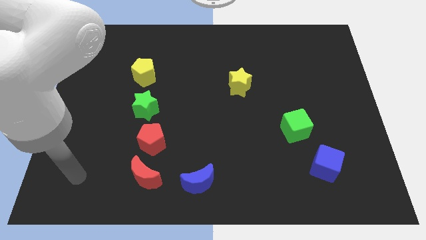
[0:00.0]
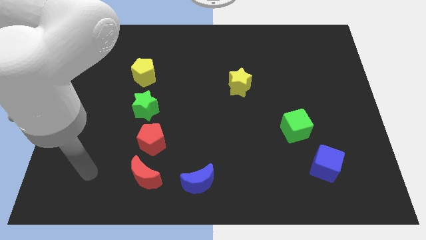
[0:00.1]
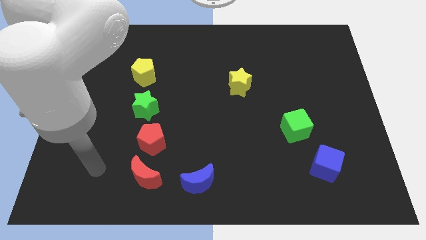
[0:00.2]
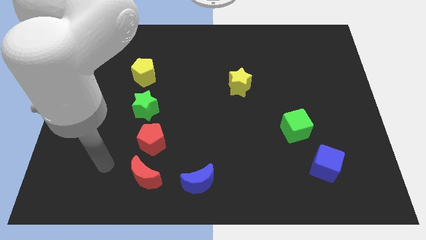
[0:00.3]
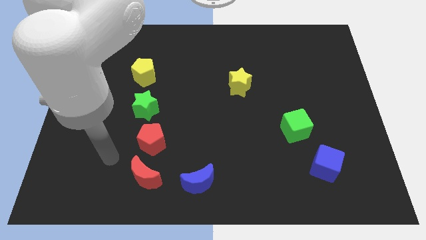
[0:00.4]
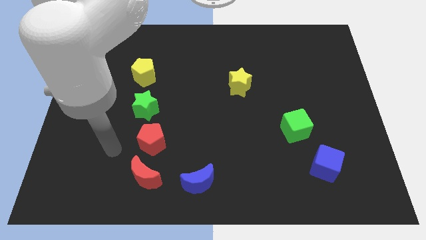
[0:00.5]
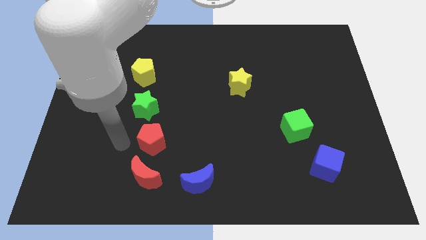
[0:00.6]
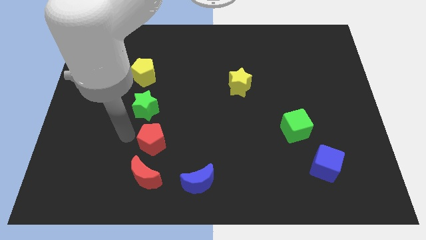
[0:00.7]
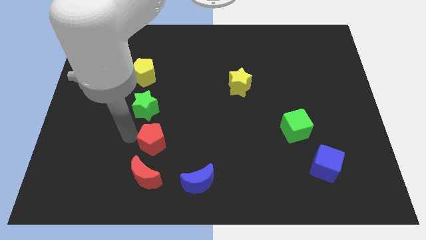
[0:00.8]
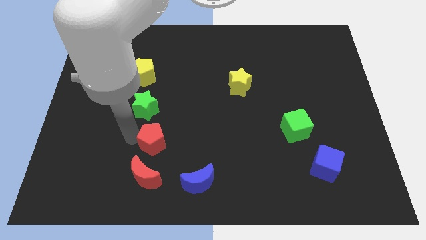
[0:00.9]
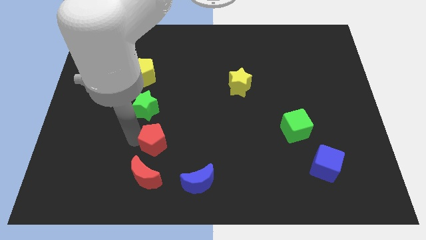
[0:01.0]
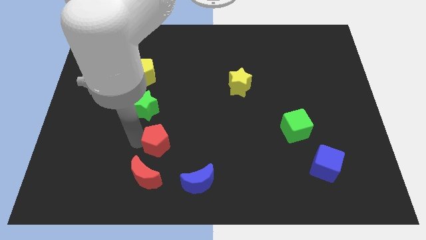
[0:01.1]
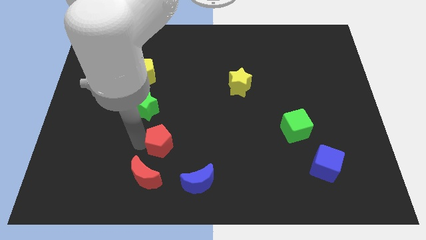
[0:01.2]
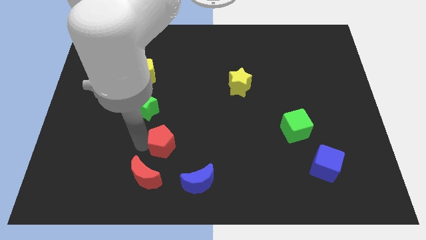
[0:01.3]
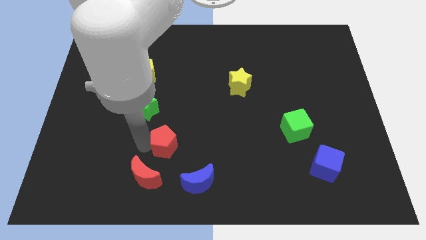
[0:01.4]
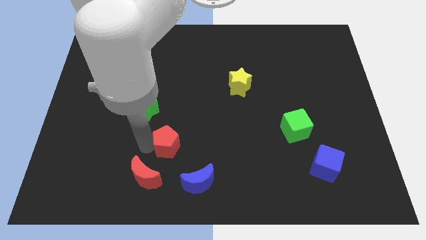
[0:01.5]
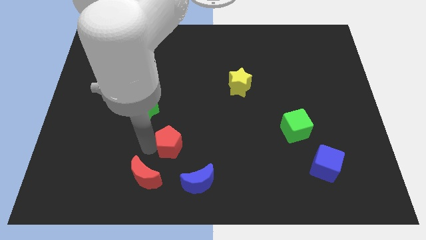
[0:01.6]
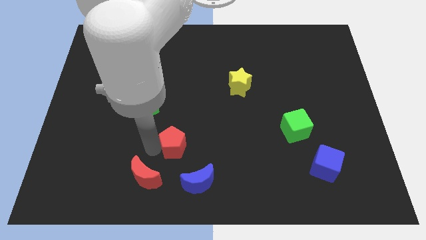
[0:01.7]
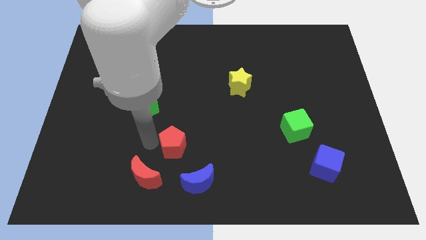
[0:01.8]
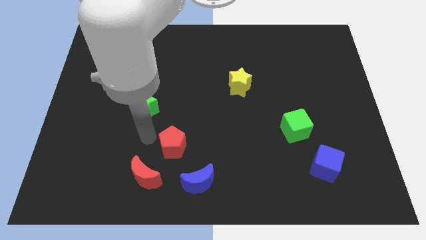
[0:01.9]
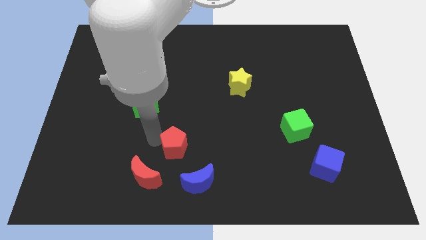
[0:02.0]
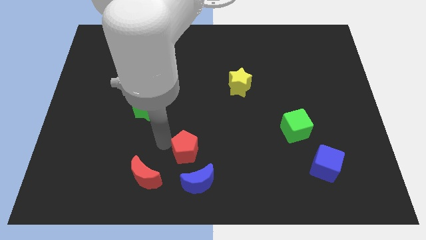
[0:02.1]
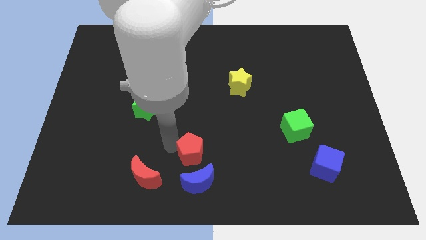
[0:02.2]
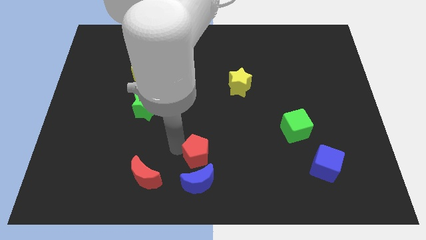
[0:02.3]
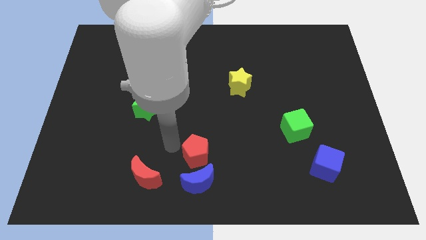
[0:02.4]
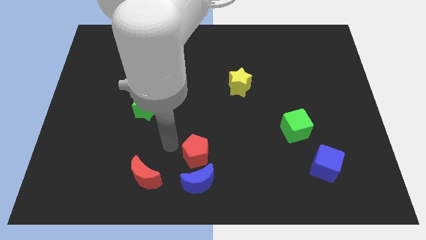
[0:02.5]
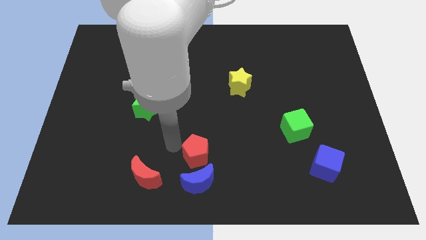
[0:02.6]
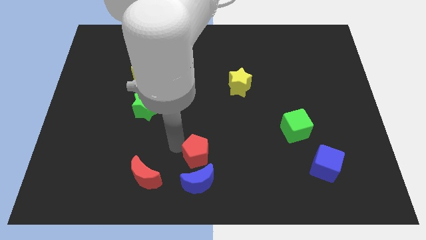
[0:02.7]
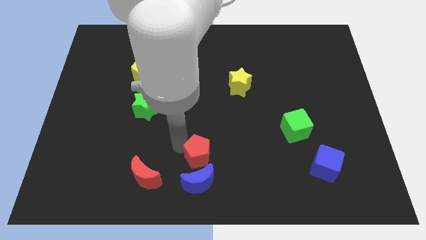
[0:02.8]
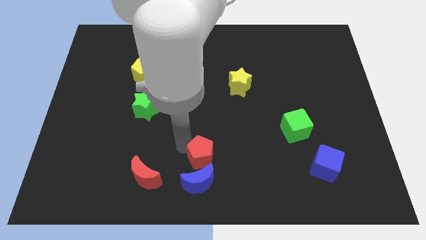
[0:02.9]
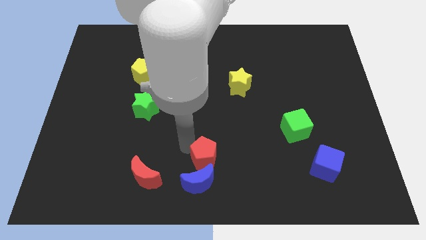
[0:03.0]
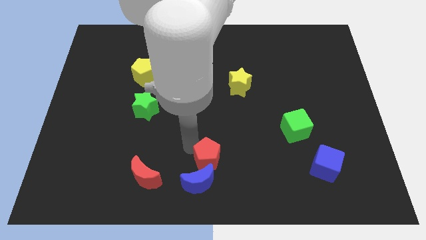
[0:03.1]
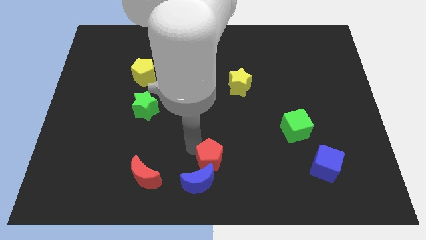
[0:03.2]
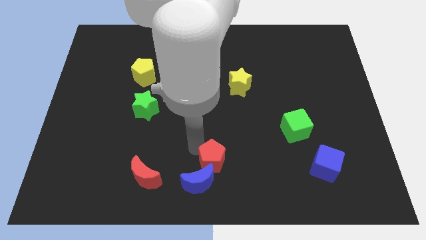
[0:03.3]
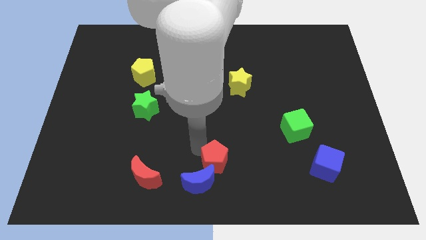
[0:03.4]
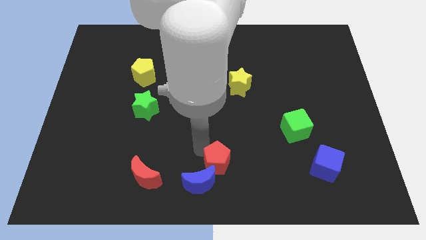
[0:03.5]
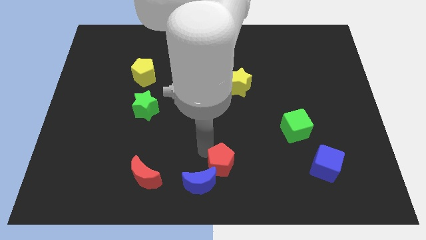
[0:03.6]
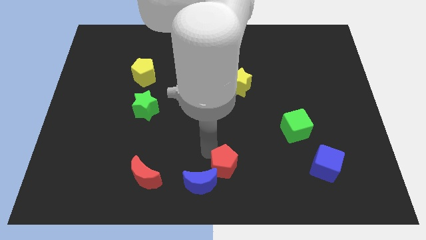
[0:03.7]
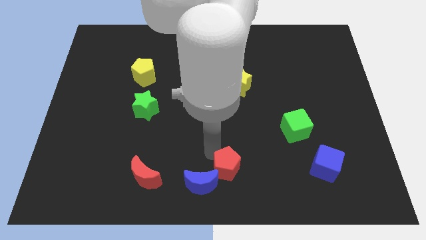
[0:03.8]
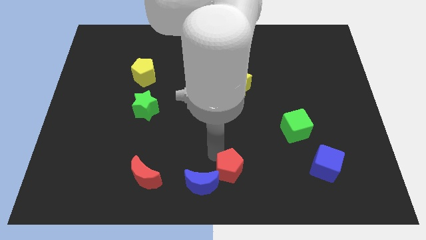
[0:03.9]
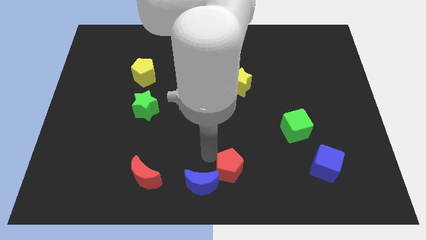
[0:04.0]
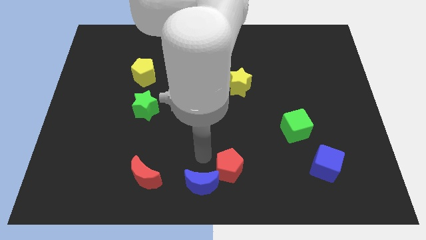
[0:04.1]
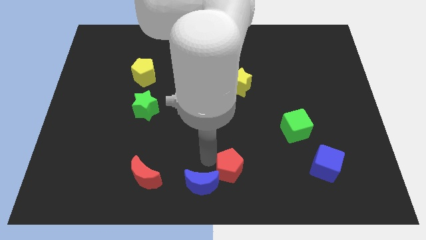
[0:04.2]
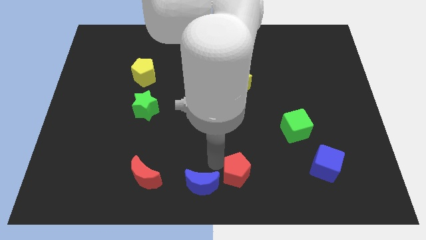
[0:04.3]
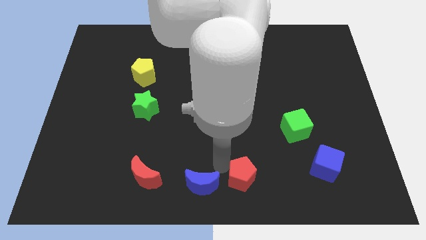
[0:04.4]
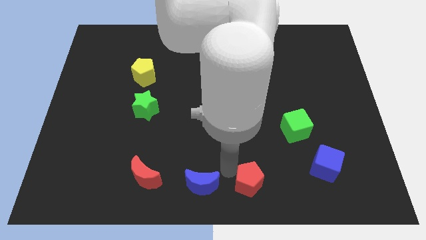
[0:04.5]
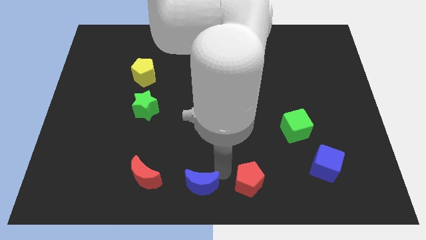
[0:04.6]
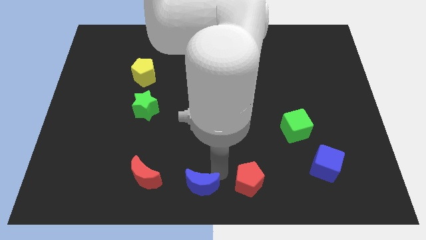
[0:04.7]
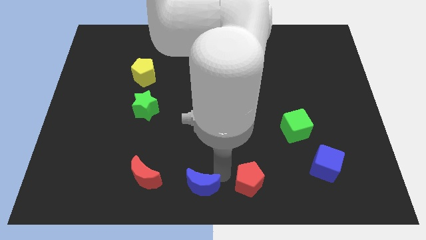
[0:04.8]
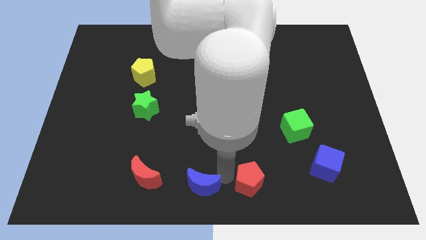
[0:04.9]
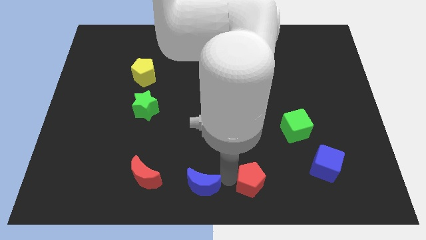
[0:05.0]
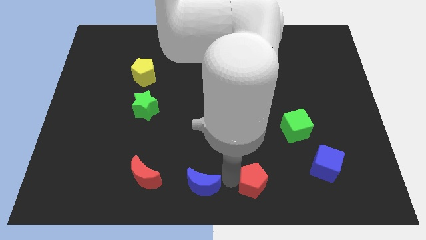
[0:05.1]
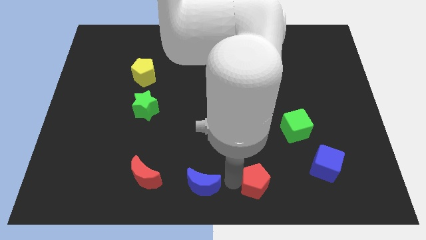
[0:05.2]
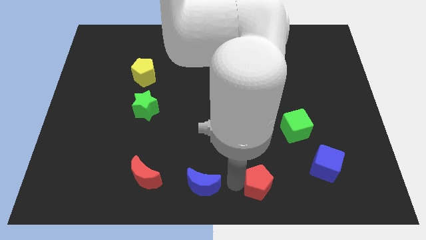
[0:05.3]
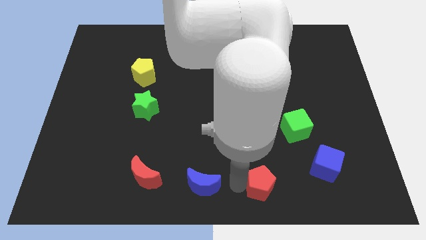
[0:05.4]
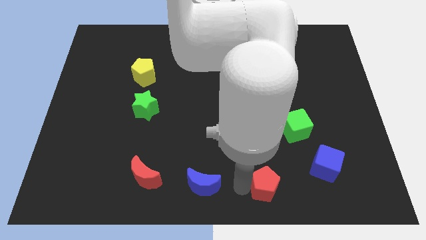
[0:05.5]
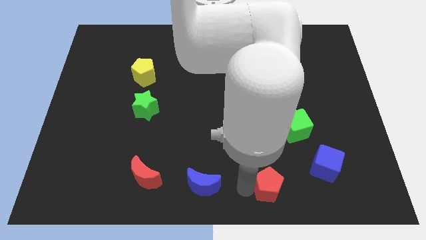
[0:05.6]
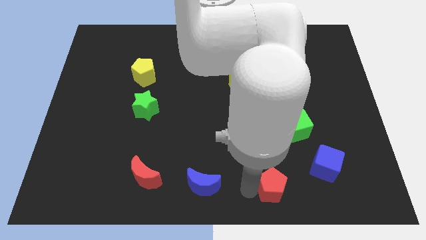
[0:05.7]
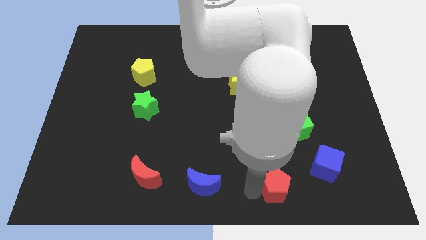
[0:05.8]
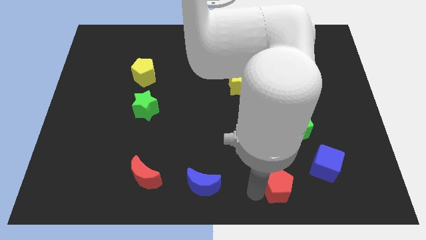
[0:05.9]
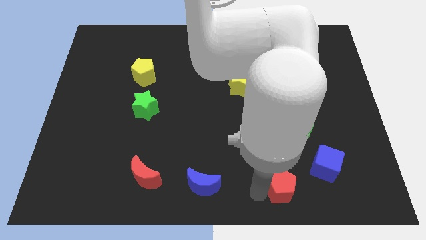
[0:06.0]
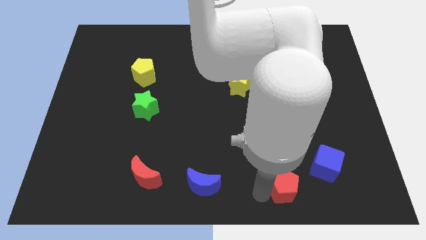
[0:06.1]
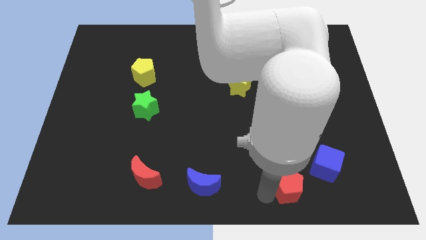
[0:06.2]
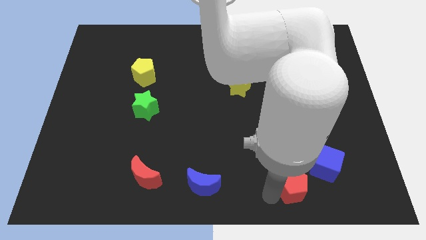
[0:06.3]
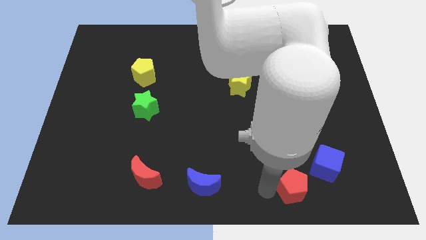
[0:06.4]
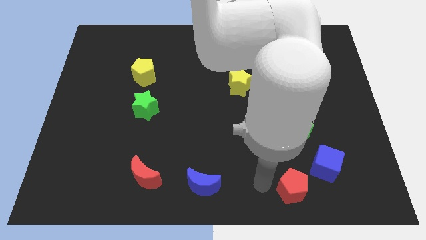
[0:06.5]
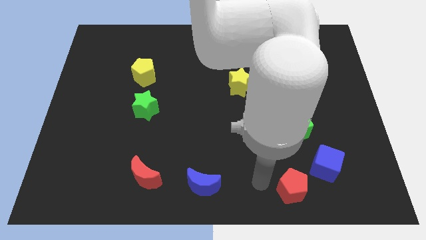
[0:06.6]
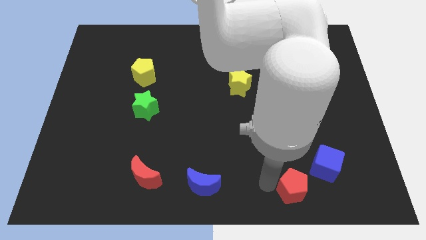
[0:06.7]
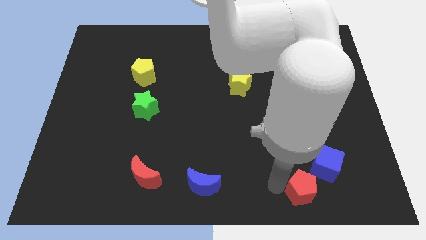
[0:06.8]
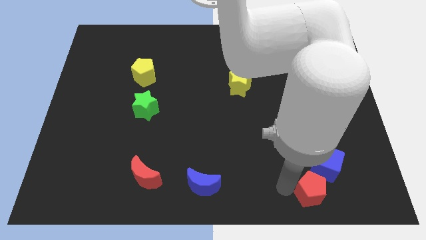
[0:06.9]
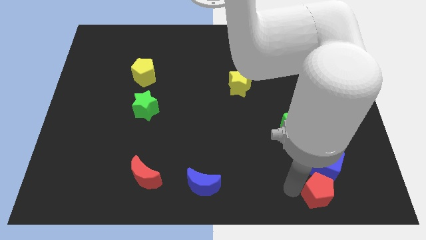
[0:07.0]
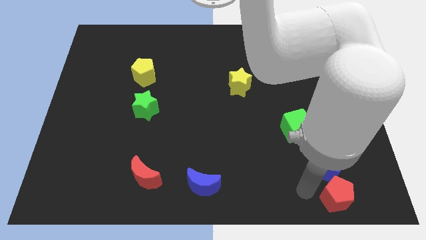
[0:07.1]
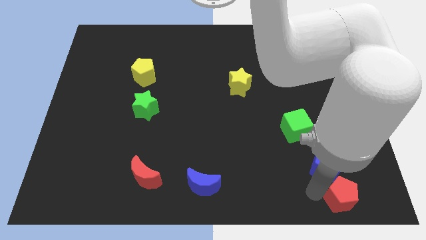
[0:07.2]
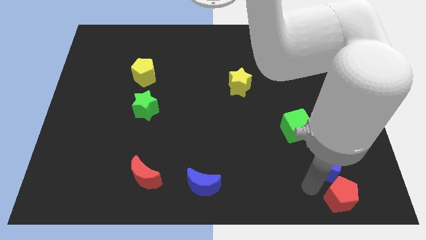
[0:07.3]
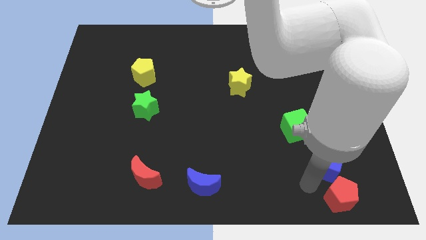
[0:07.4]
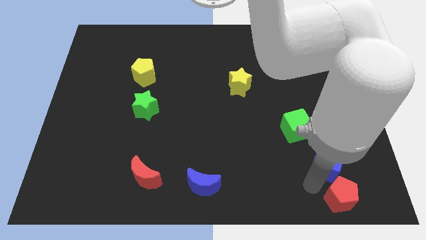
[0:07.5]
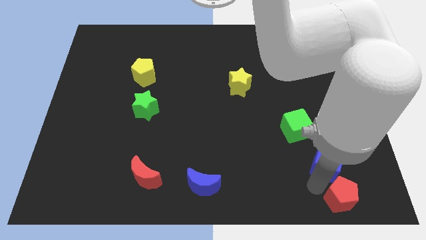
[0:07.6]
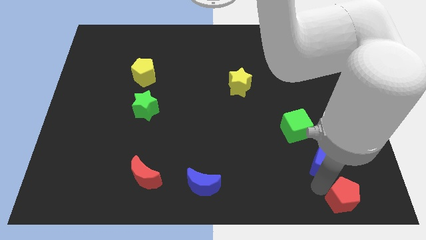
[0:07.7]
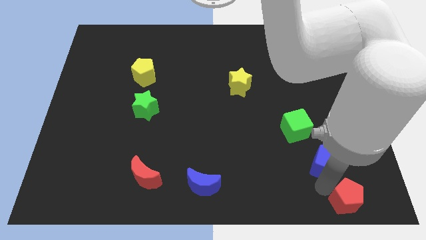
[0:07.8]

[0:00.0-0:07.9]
move the red pentagon to the lower right corner
